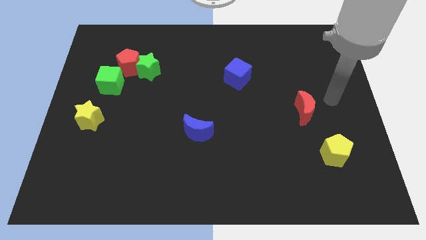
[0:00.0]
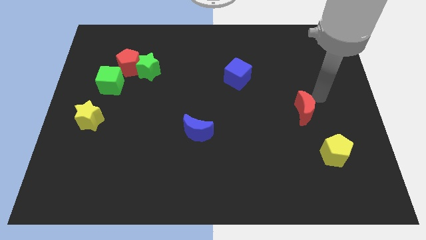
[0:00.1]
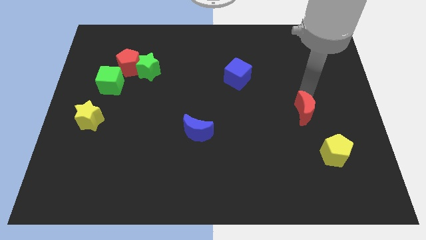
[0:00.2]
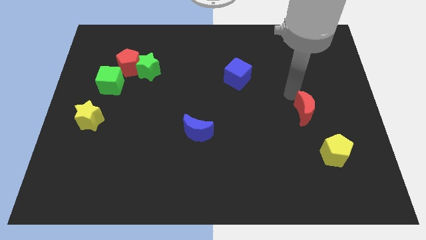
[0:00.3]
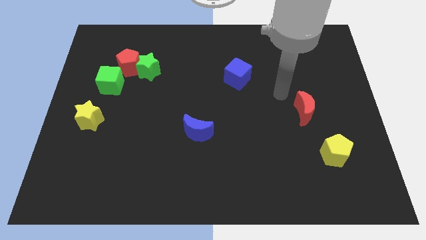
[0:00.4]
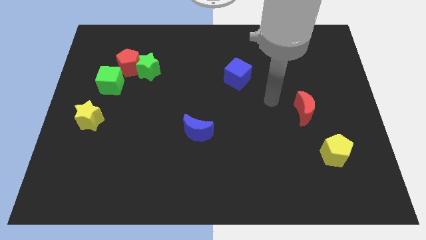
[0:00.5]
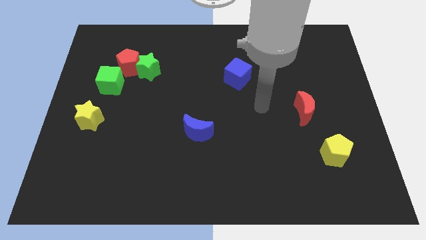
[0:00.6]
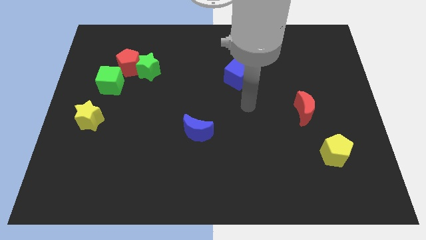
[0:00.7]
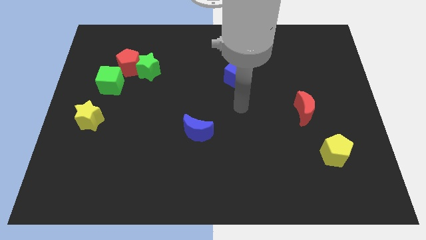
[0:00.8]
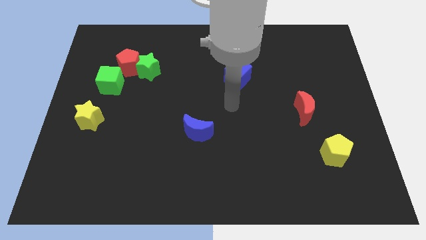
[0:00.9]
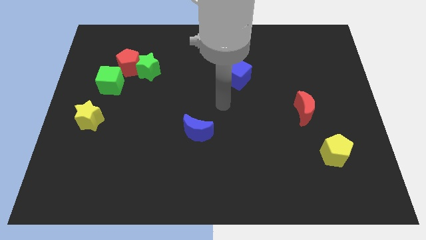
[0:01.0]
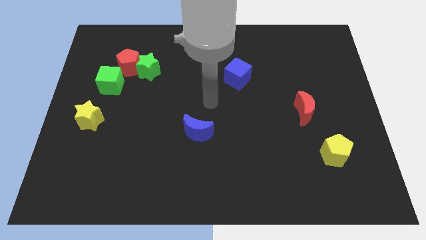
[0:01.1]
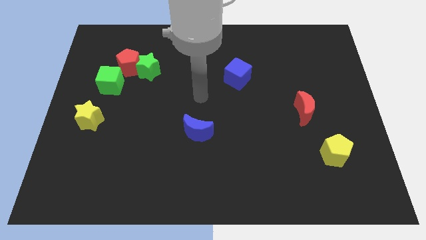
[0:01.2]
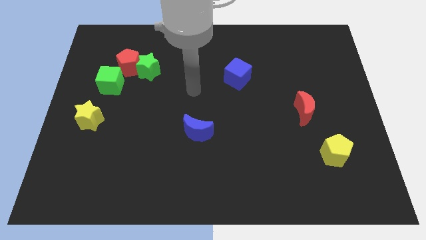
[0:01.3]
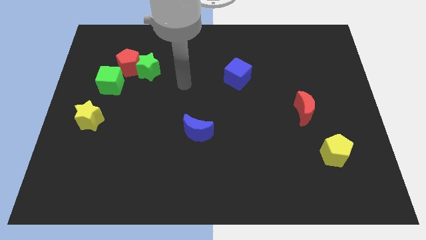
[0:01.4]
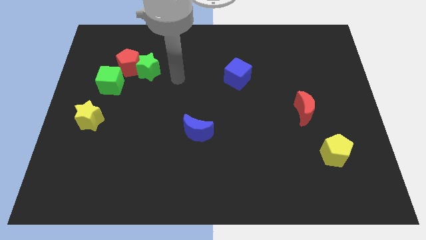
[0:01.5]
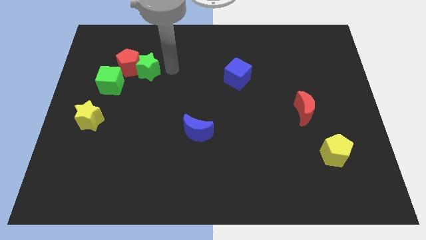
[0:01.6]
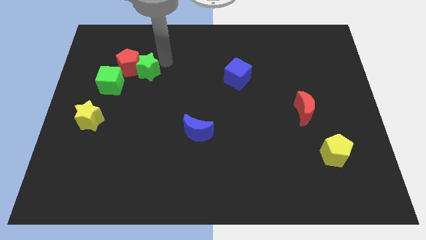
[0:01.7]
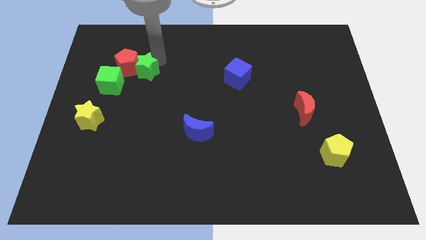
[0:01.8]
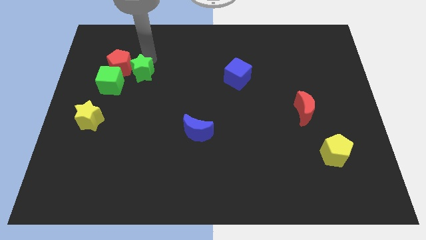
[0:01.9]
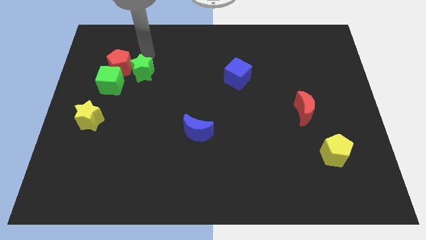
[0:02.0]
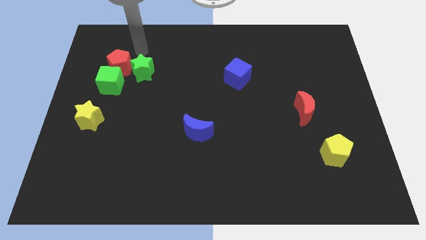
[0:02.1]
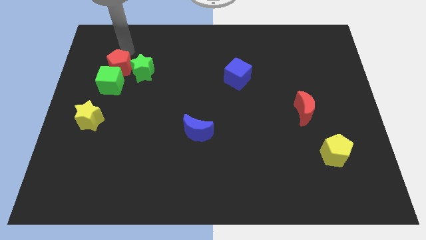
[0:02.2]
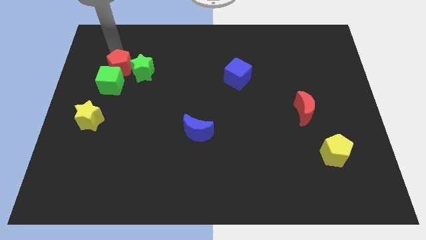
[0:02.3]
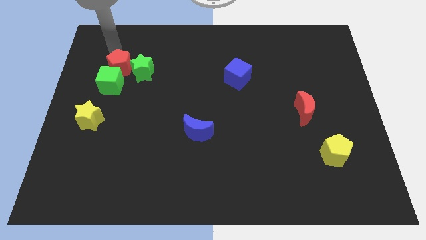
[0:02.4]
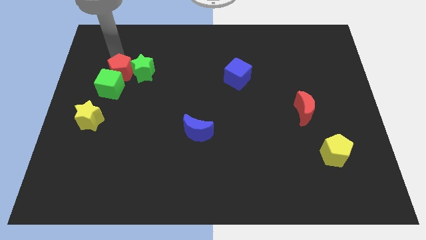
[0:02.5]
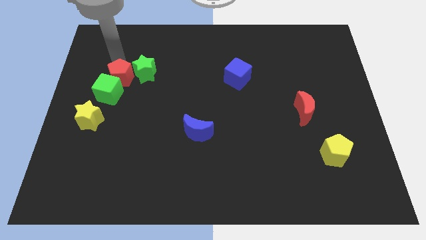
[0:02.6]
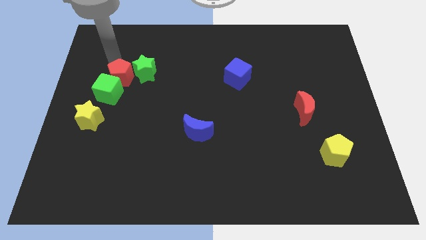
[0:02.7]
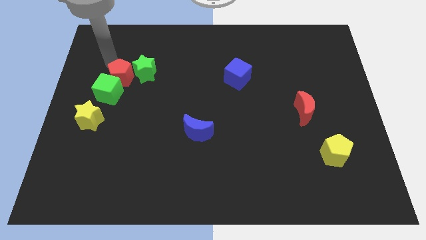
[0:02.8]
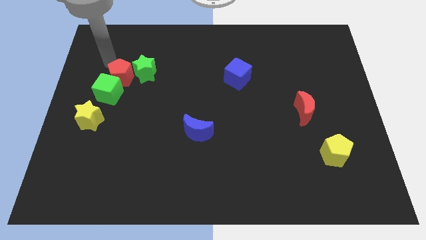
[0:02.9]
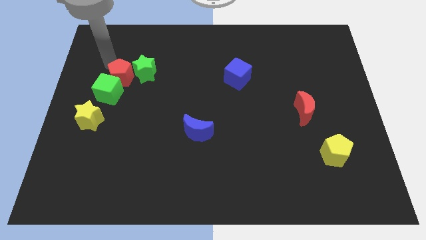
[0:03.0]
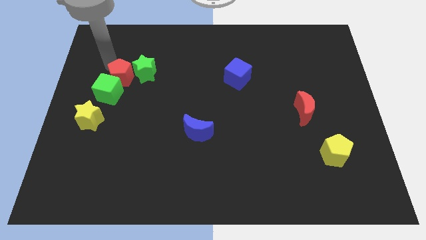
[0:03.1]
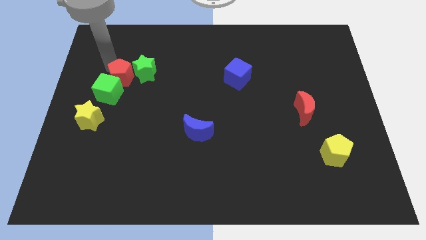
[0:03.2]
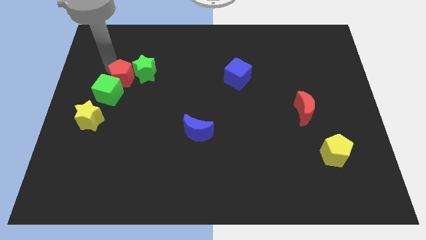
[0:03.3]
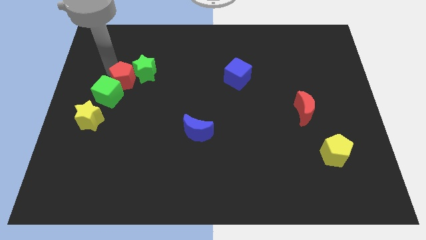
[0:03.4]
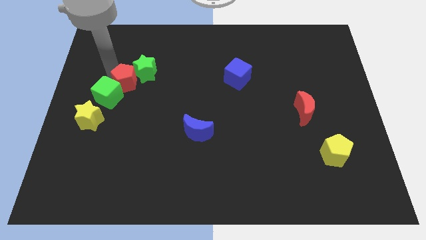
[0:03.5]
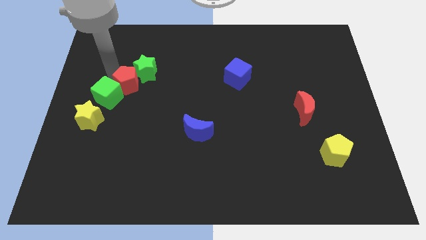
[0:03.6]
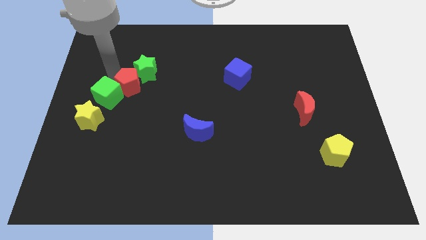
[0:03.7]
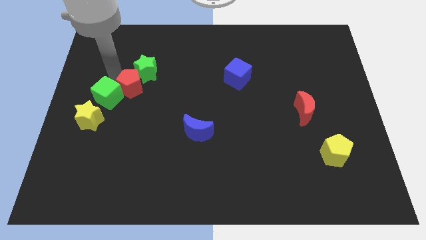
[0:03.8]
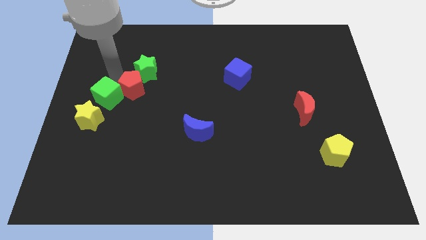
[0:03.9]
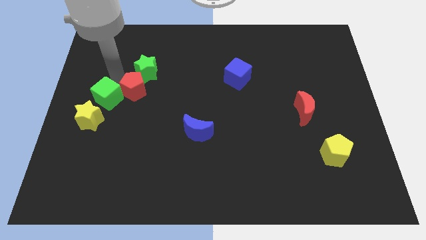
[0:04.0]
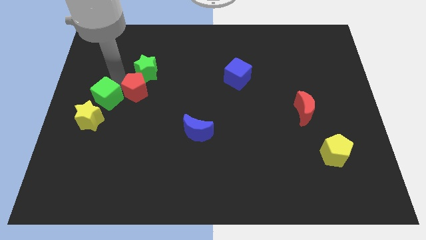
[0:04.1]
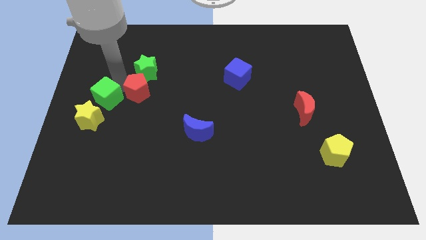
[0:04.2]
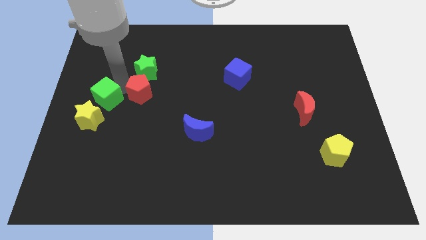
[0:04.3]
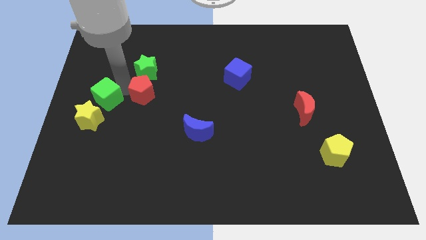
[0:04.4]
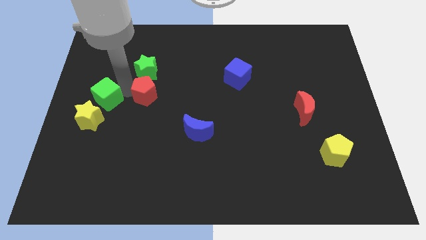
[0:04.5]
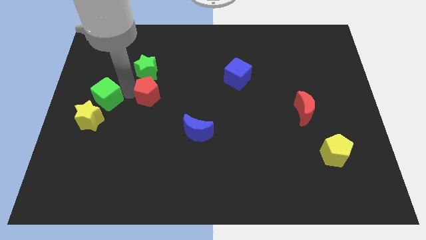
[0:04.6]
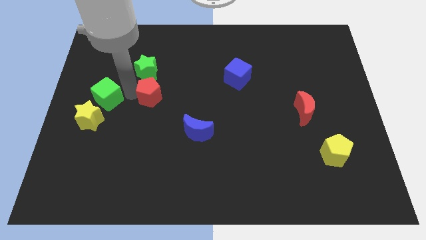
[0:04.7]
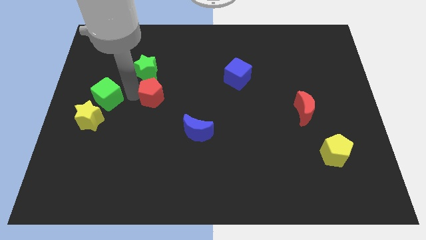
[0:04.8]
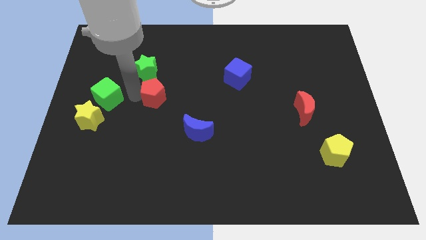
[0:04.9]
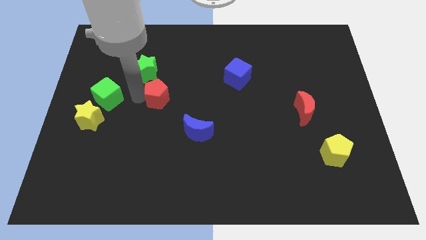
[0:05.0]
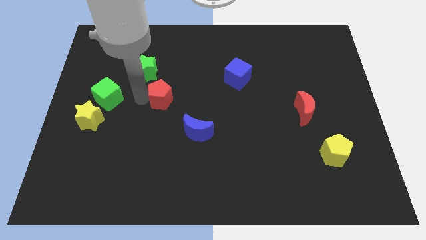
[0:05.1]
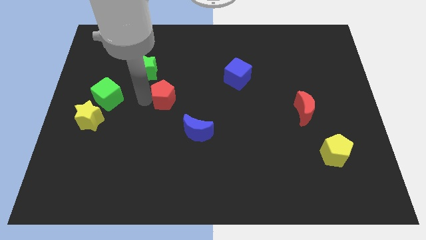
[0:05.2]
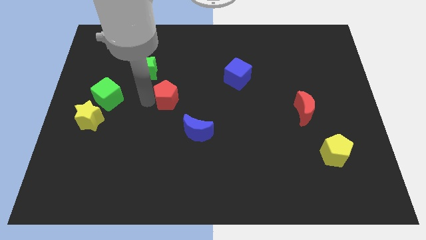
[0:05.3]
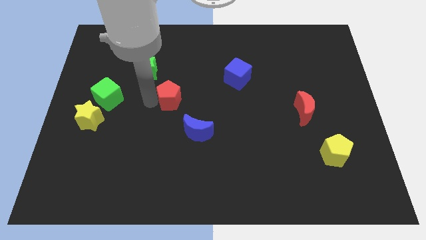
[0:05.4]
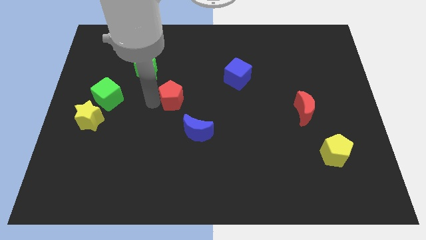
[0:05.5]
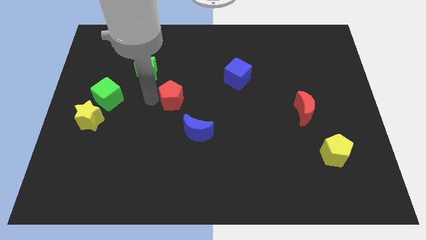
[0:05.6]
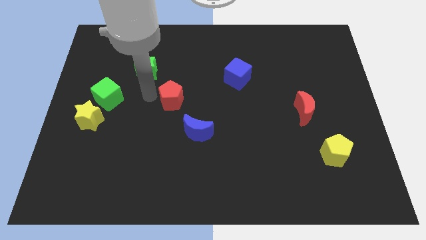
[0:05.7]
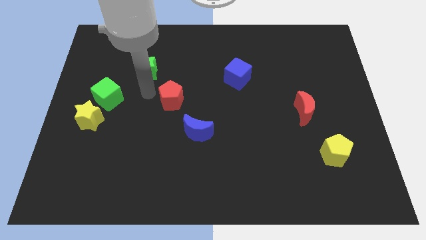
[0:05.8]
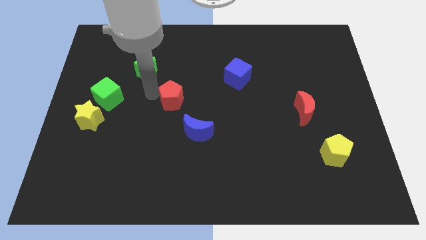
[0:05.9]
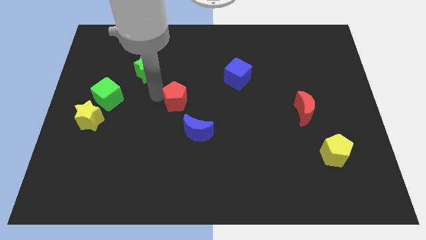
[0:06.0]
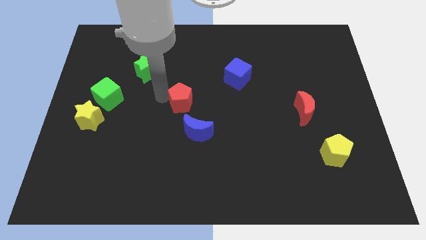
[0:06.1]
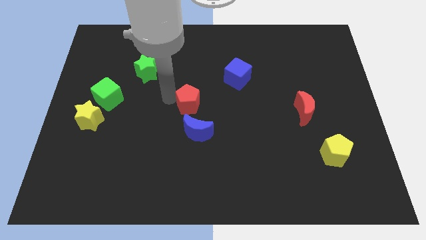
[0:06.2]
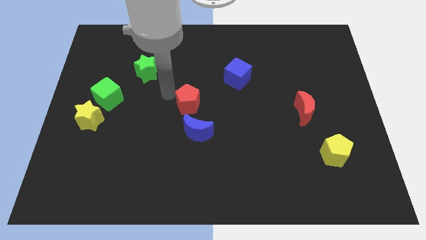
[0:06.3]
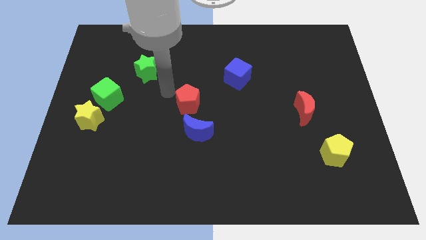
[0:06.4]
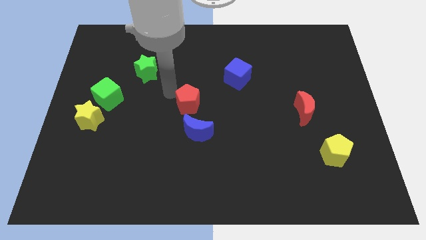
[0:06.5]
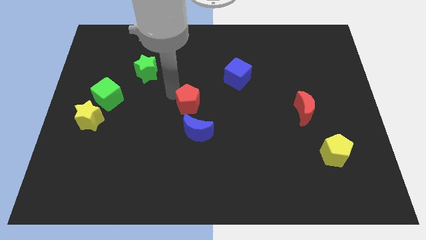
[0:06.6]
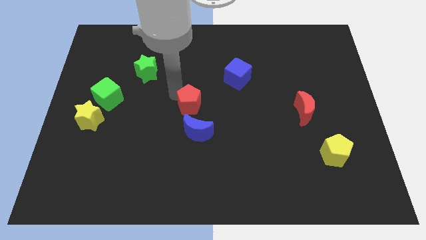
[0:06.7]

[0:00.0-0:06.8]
slide the red pentagon diagonally down and right

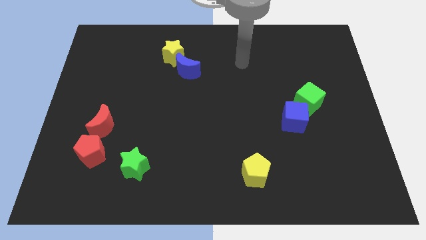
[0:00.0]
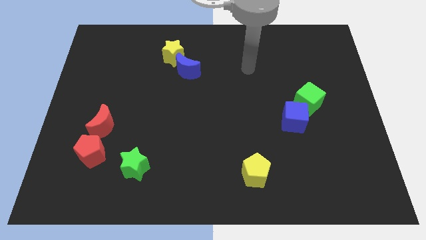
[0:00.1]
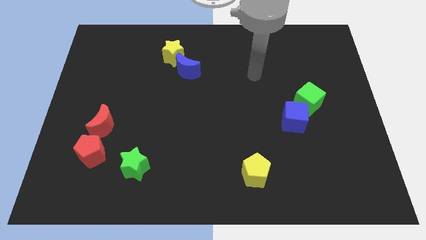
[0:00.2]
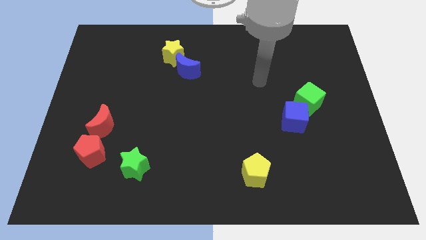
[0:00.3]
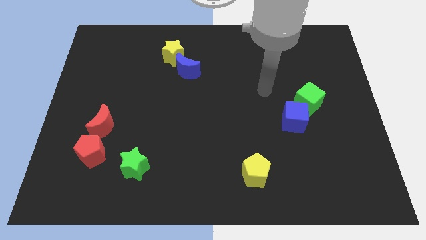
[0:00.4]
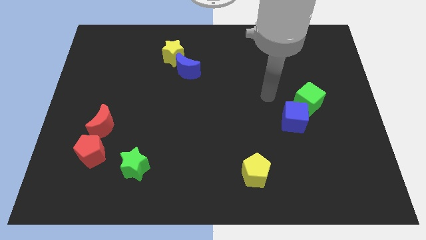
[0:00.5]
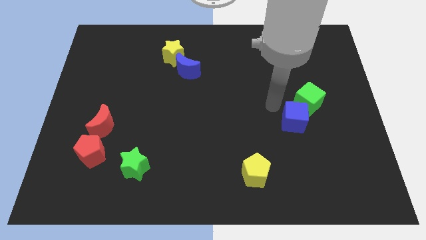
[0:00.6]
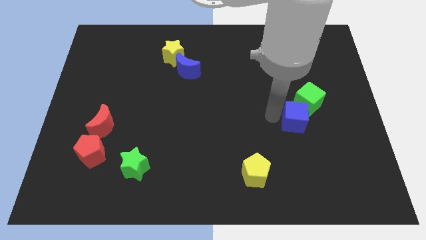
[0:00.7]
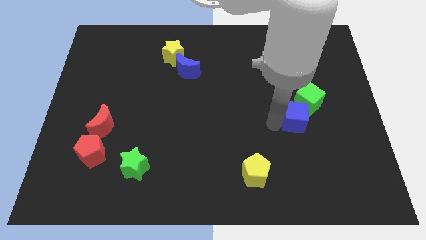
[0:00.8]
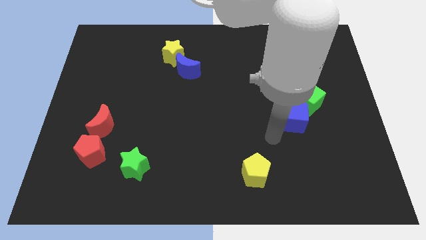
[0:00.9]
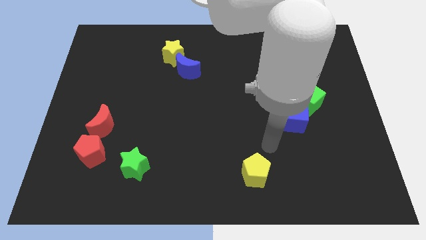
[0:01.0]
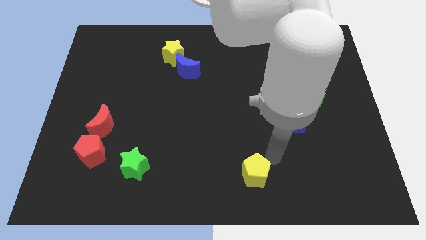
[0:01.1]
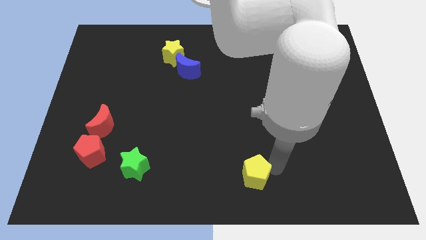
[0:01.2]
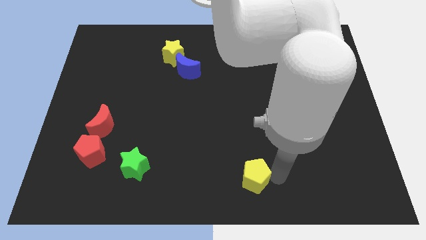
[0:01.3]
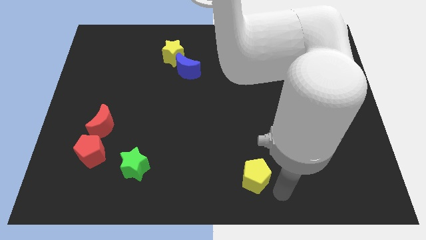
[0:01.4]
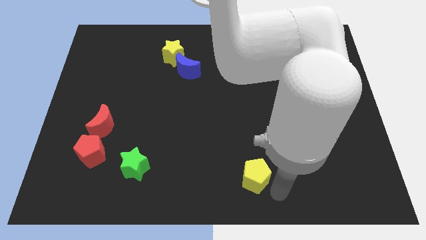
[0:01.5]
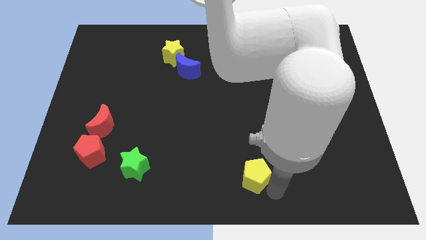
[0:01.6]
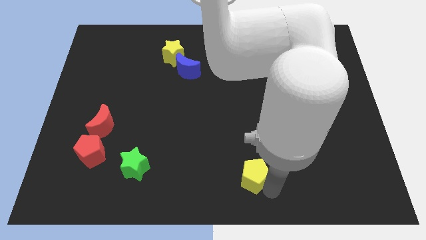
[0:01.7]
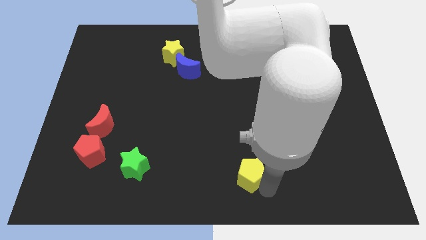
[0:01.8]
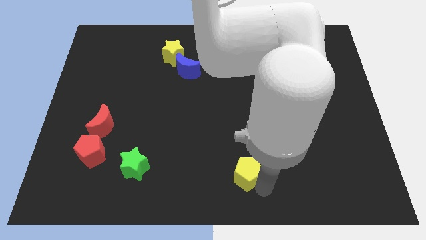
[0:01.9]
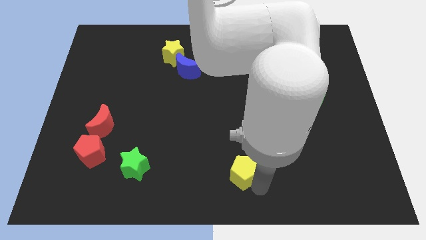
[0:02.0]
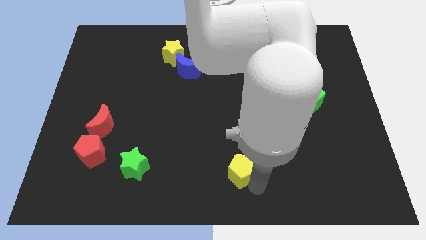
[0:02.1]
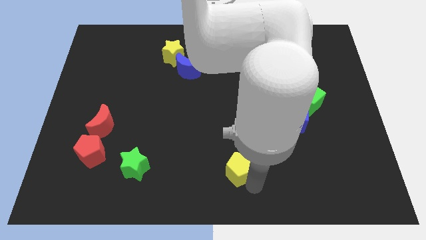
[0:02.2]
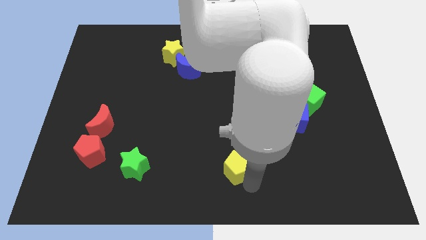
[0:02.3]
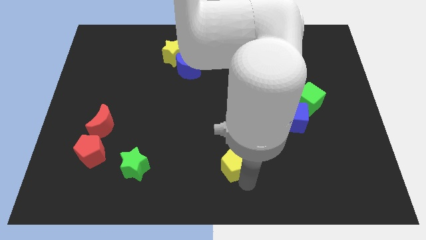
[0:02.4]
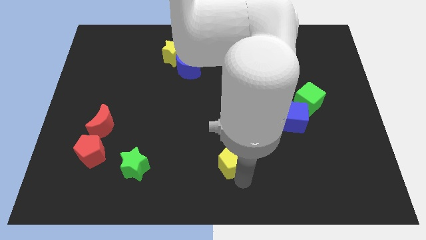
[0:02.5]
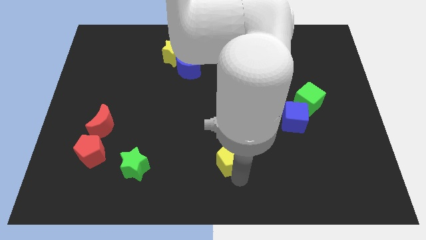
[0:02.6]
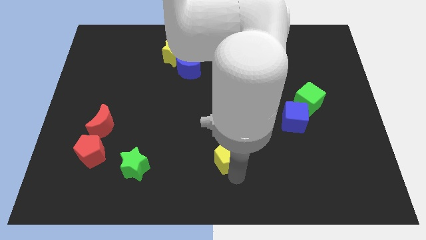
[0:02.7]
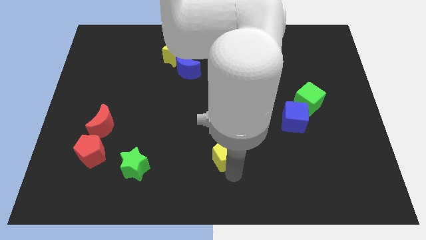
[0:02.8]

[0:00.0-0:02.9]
slide the yellow pentagon somewhat up and then to the left
